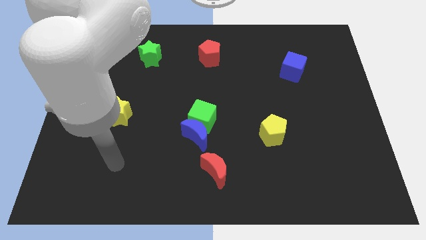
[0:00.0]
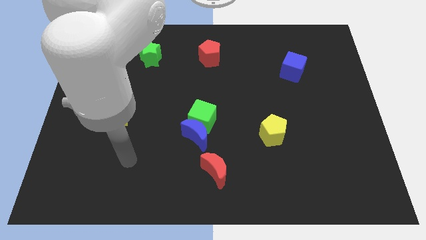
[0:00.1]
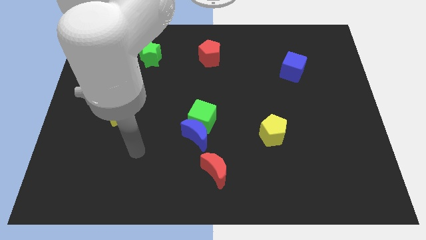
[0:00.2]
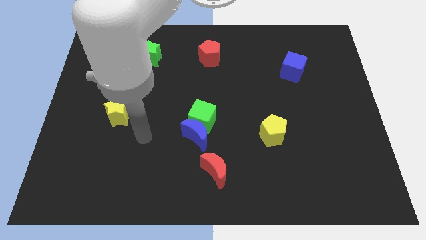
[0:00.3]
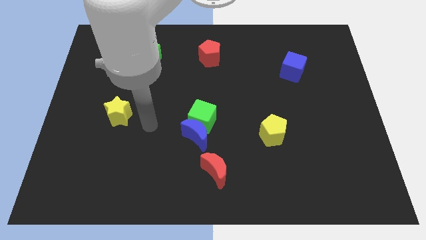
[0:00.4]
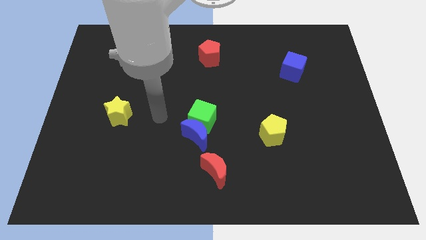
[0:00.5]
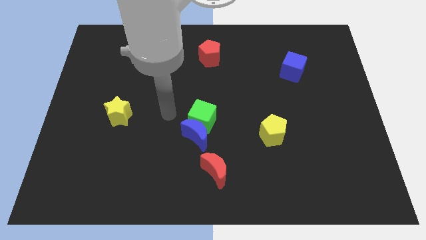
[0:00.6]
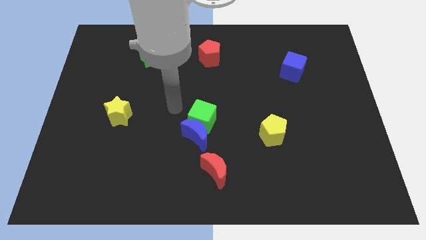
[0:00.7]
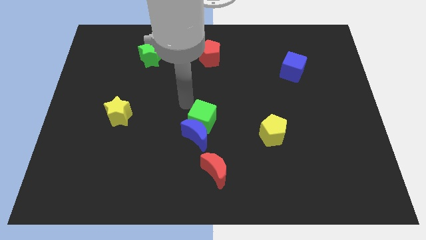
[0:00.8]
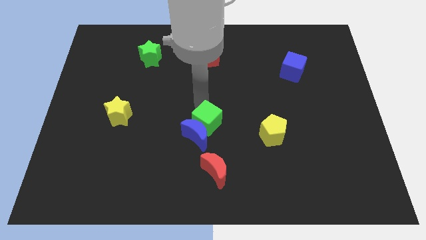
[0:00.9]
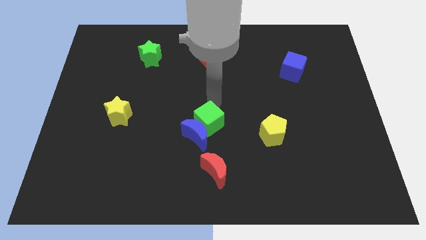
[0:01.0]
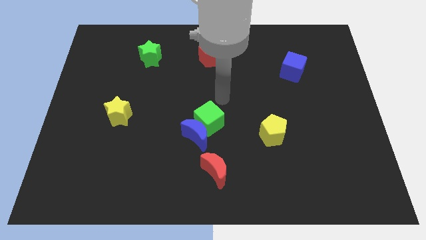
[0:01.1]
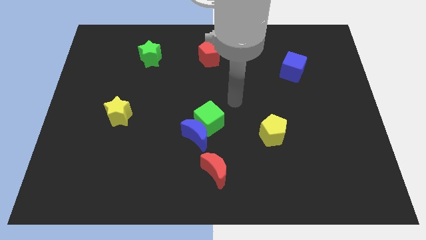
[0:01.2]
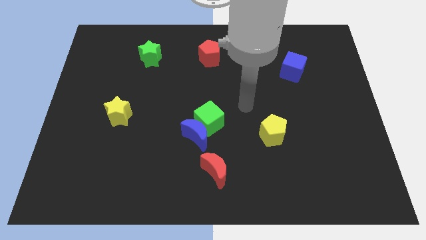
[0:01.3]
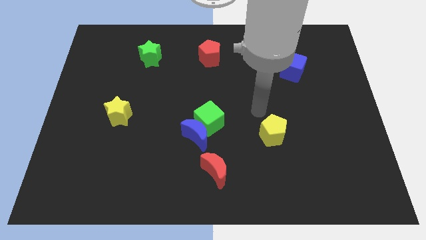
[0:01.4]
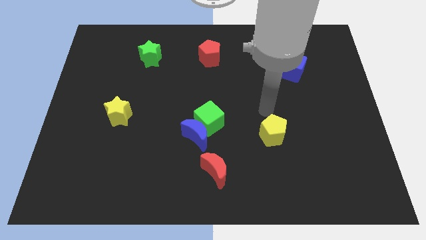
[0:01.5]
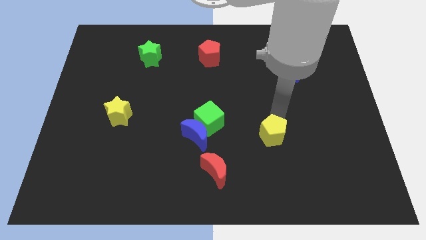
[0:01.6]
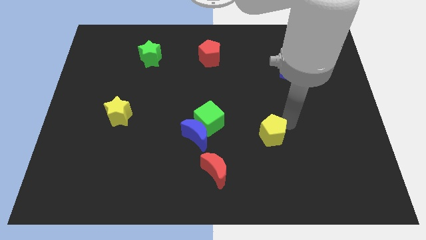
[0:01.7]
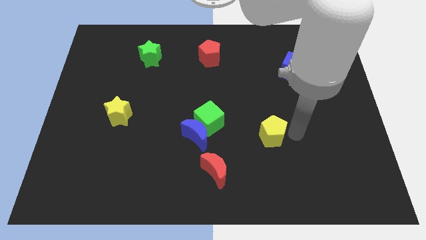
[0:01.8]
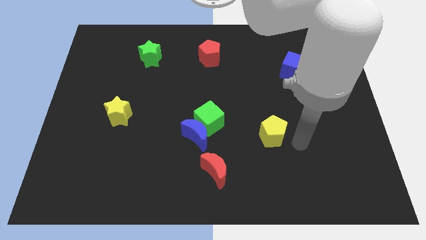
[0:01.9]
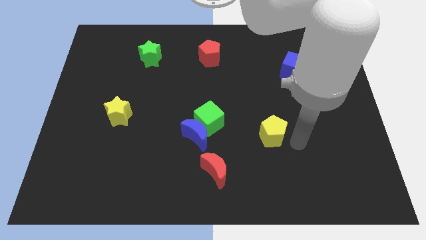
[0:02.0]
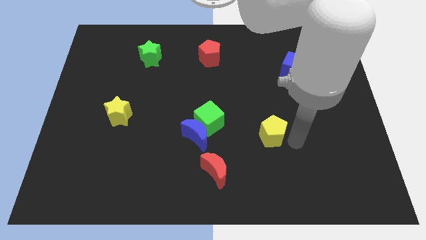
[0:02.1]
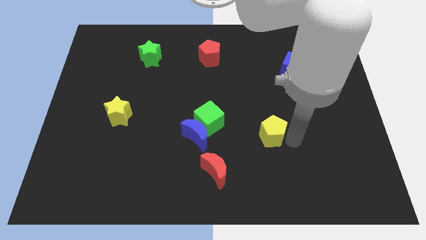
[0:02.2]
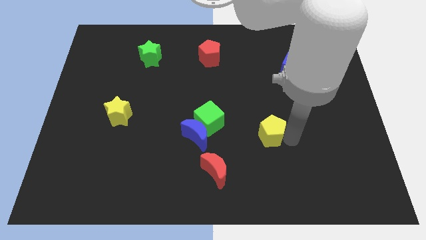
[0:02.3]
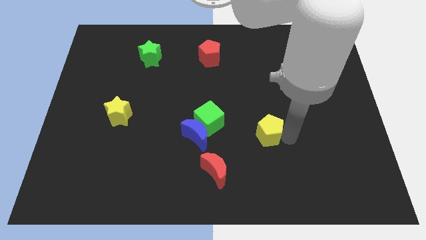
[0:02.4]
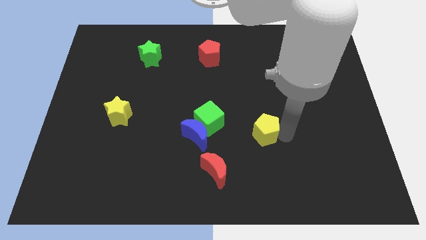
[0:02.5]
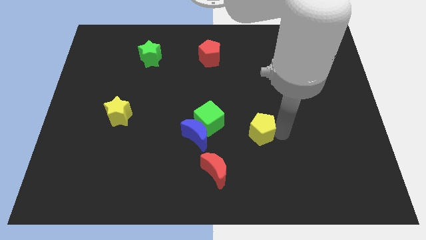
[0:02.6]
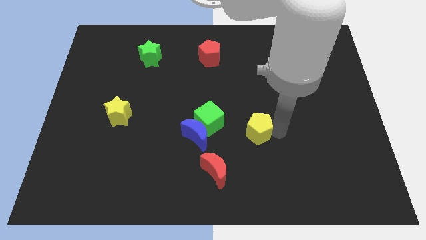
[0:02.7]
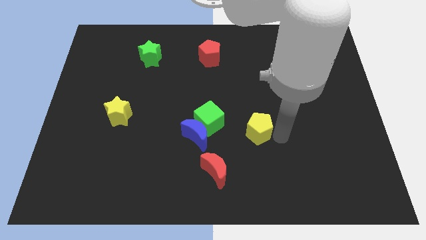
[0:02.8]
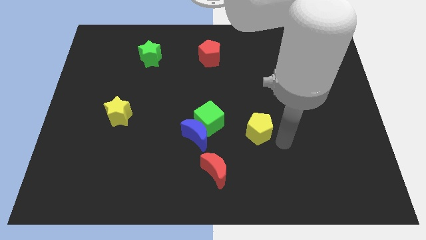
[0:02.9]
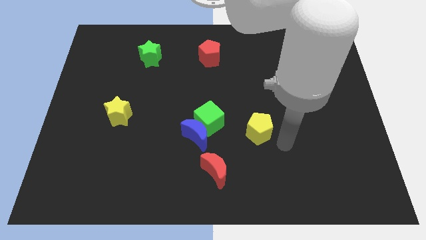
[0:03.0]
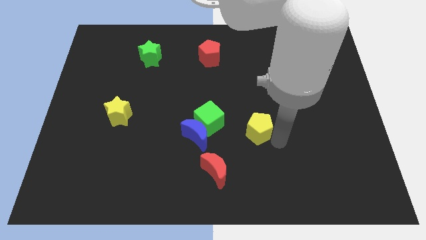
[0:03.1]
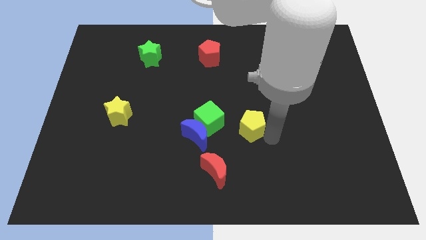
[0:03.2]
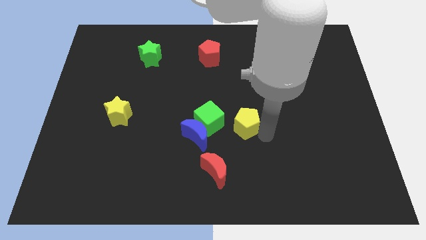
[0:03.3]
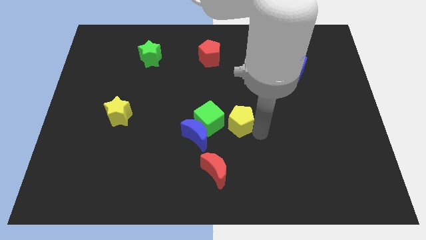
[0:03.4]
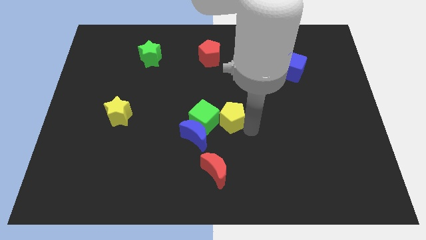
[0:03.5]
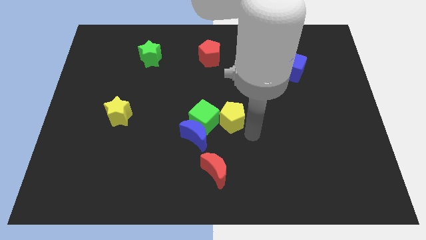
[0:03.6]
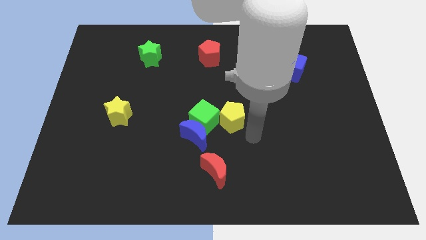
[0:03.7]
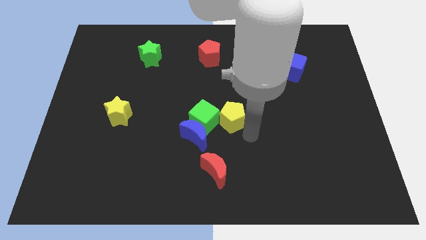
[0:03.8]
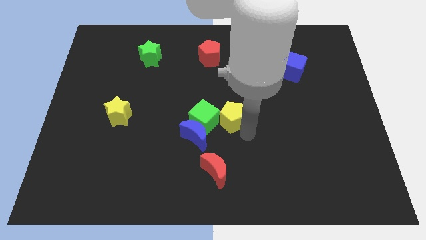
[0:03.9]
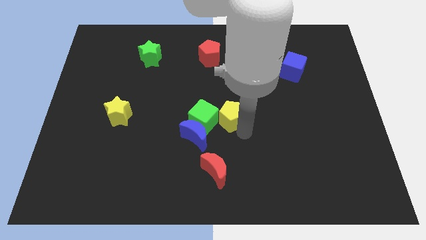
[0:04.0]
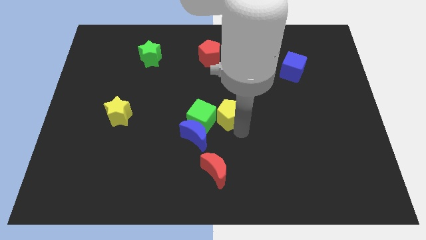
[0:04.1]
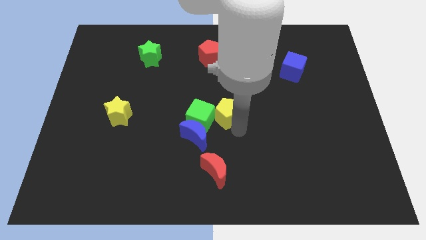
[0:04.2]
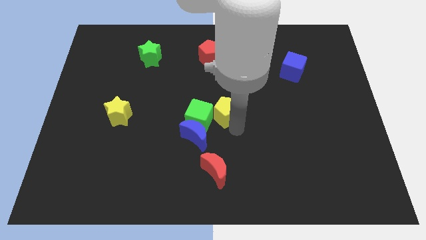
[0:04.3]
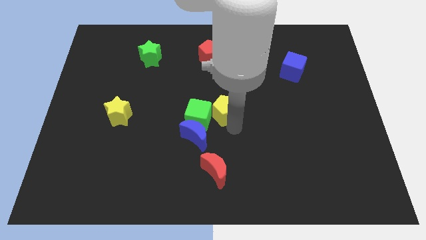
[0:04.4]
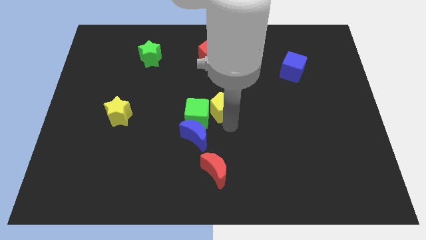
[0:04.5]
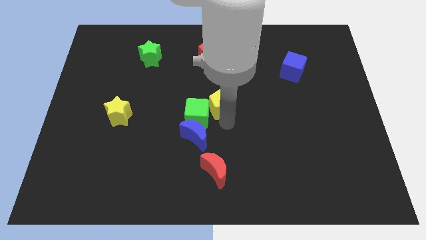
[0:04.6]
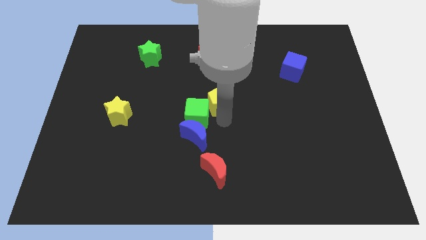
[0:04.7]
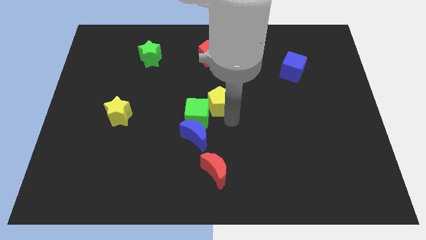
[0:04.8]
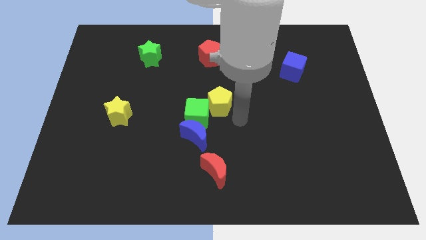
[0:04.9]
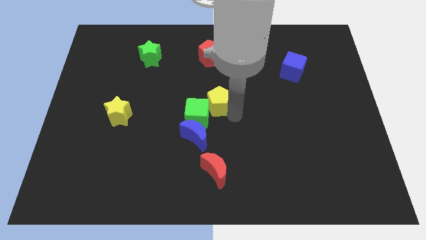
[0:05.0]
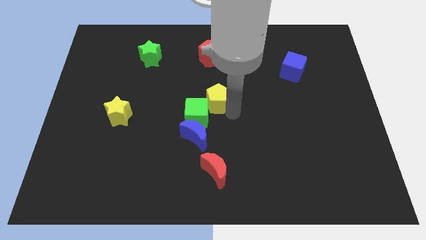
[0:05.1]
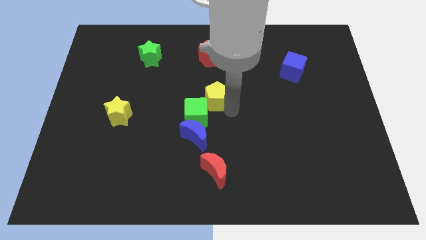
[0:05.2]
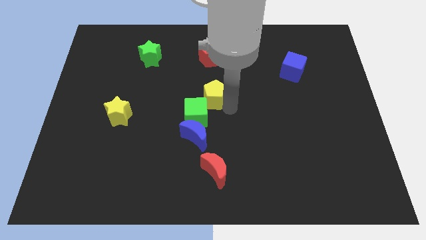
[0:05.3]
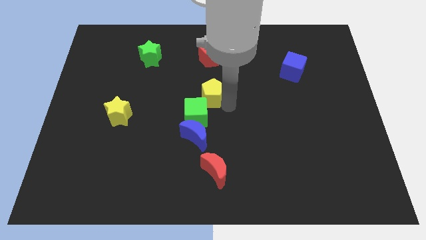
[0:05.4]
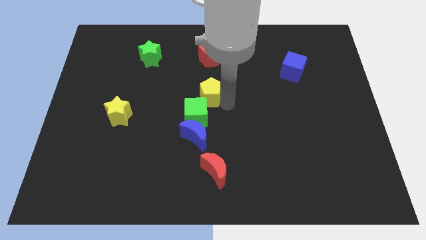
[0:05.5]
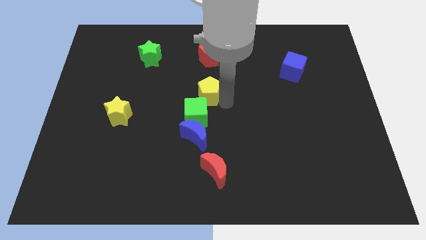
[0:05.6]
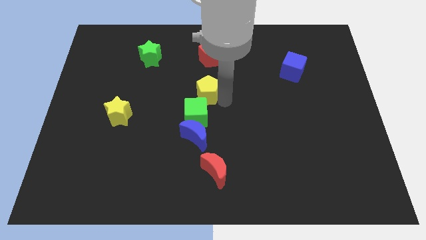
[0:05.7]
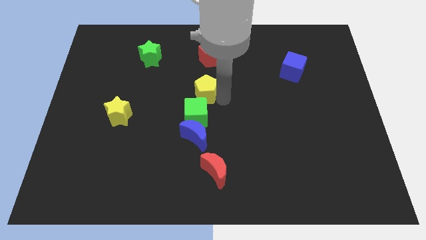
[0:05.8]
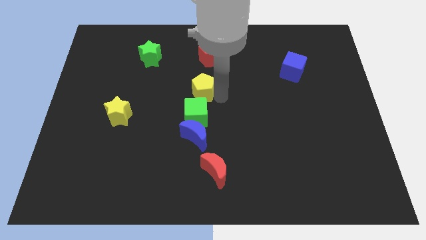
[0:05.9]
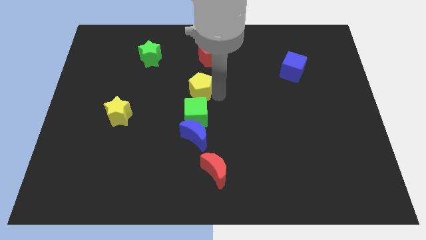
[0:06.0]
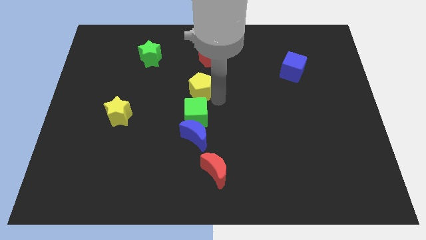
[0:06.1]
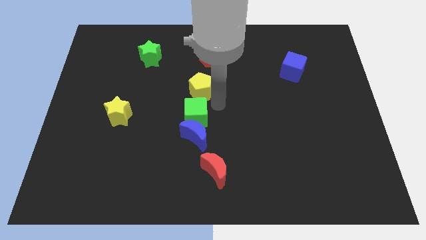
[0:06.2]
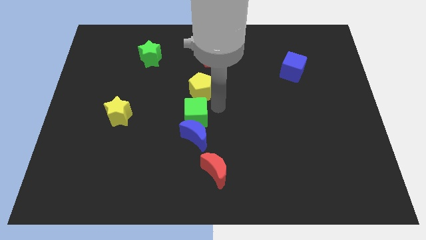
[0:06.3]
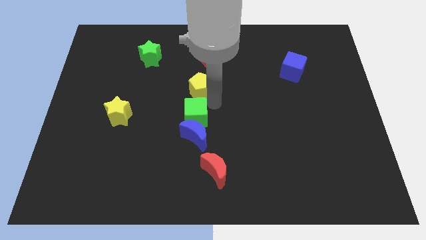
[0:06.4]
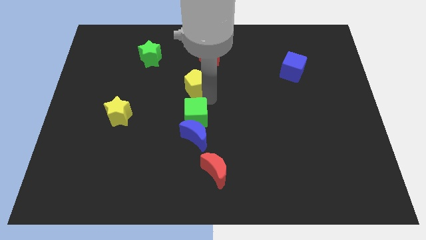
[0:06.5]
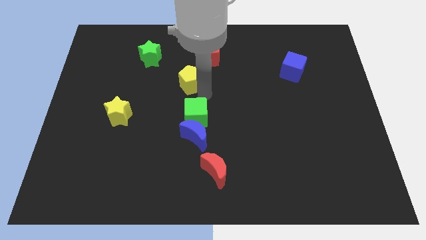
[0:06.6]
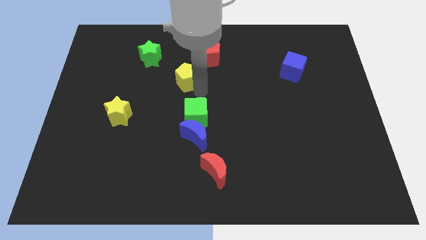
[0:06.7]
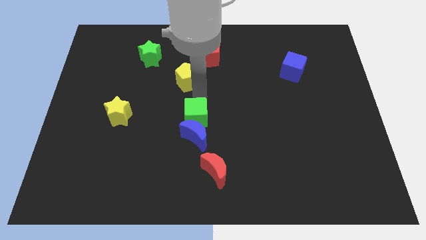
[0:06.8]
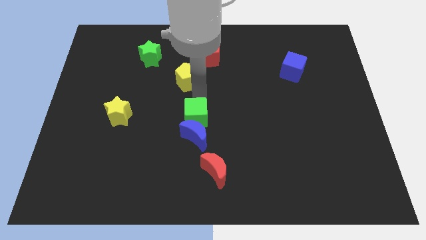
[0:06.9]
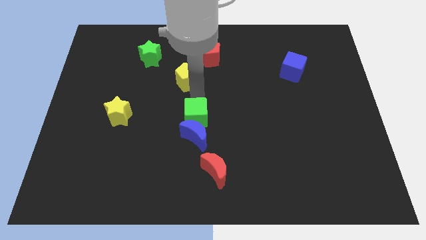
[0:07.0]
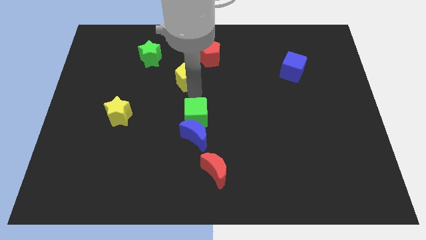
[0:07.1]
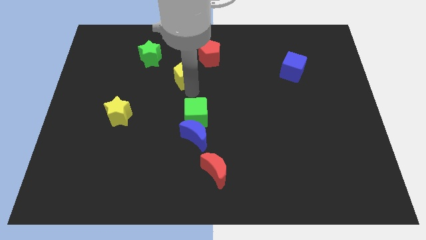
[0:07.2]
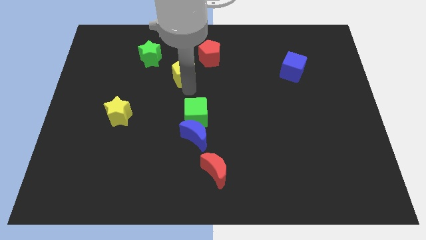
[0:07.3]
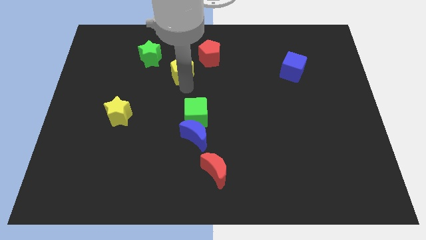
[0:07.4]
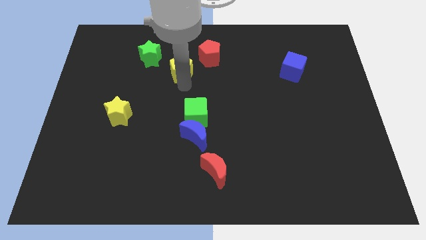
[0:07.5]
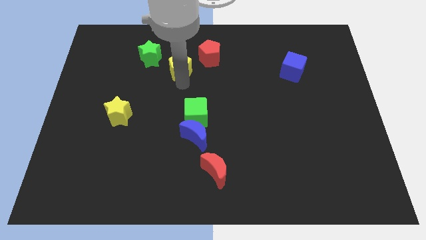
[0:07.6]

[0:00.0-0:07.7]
move the yellow pentagon to the left side of the red pentagon
